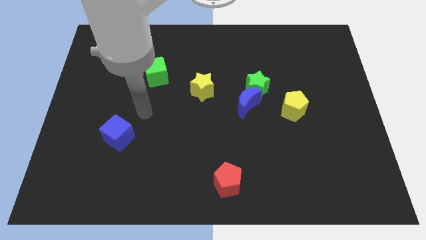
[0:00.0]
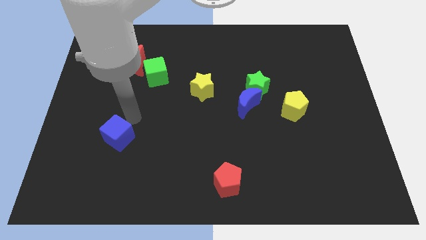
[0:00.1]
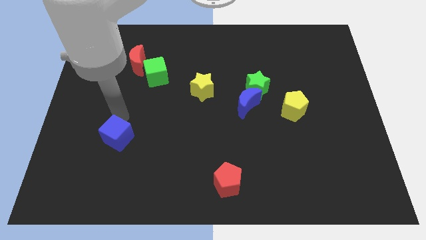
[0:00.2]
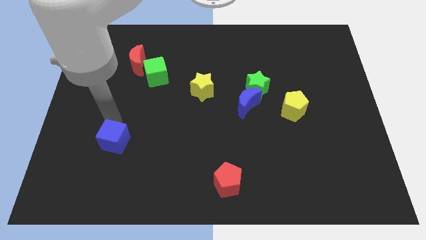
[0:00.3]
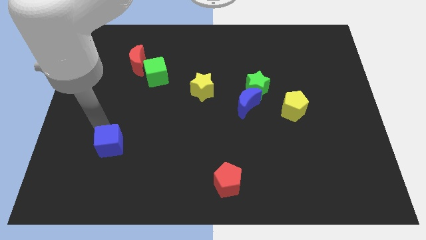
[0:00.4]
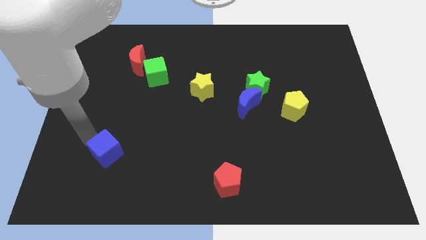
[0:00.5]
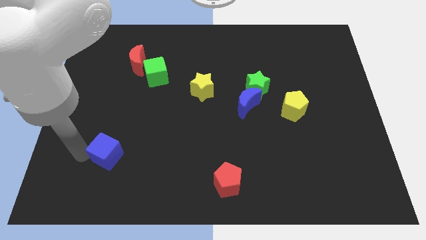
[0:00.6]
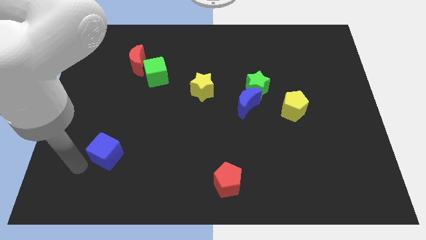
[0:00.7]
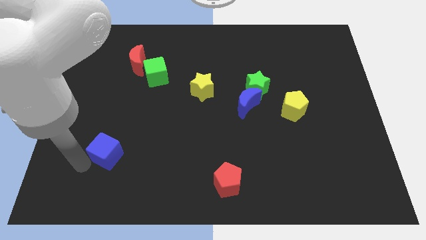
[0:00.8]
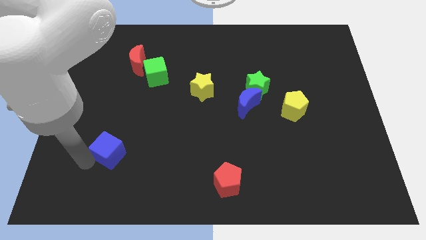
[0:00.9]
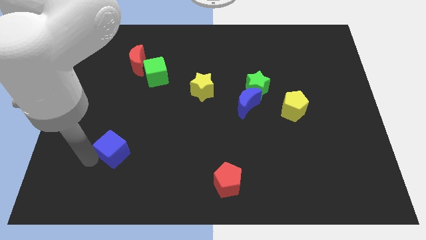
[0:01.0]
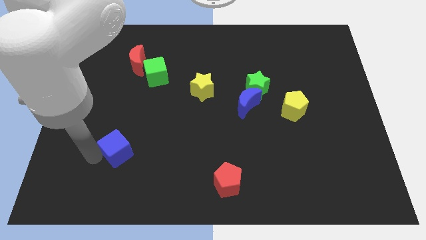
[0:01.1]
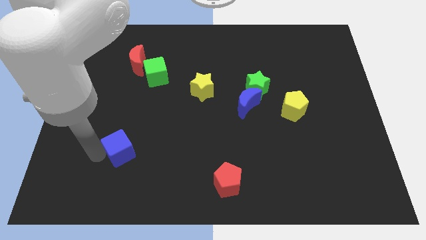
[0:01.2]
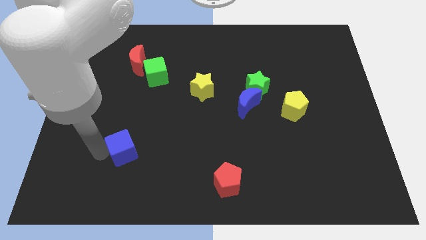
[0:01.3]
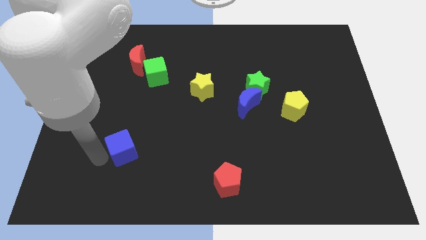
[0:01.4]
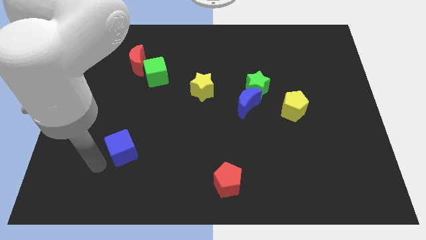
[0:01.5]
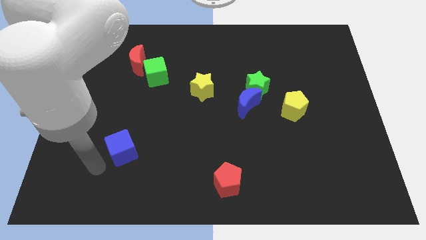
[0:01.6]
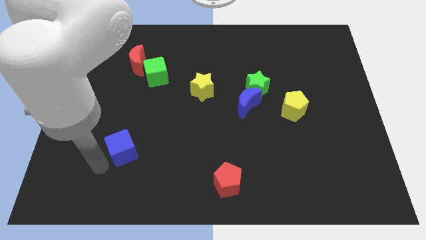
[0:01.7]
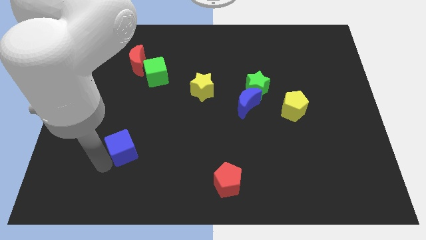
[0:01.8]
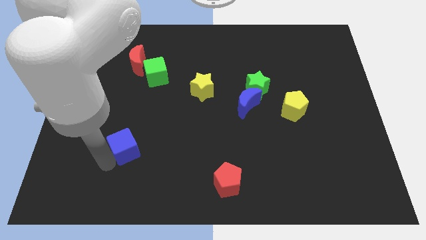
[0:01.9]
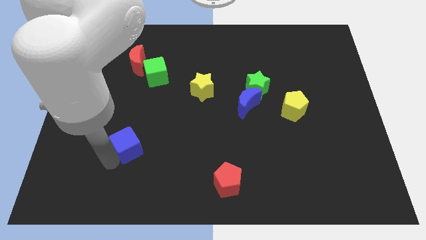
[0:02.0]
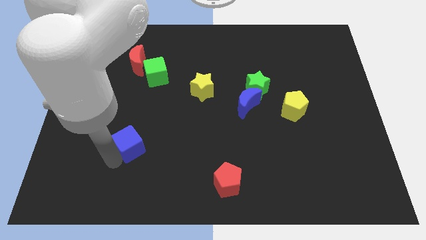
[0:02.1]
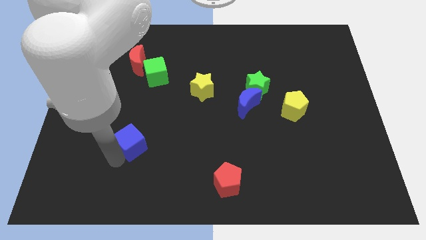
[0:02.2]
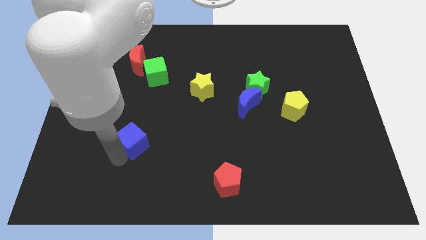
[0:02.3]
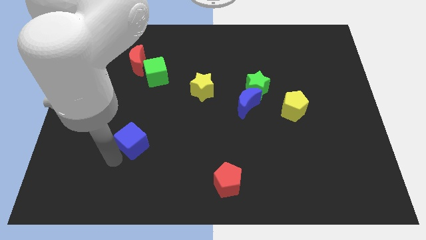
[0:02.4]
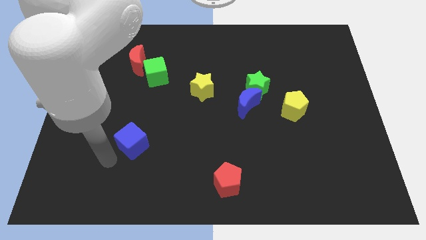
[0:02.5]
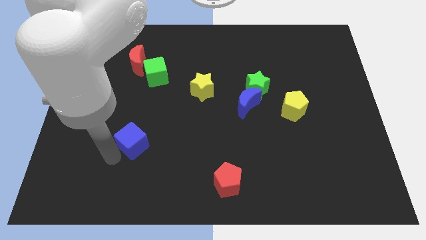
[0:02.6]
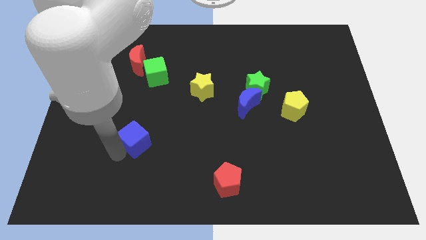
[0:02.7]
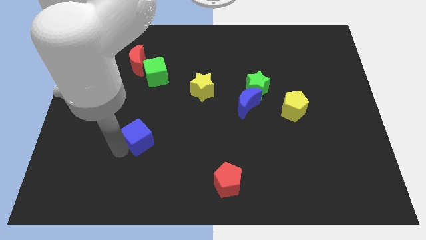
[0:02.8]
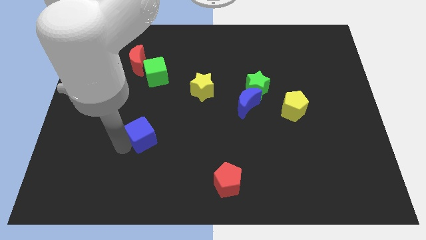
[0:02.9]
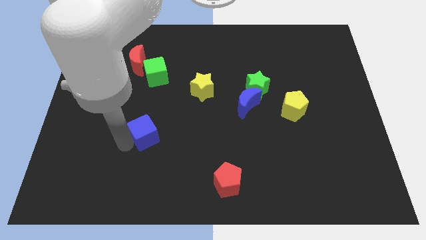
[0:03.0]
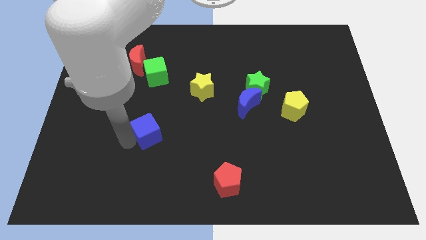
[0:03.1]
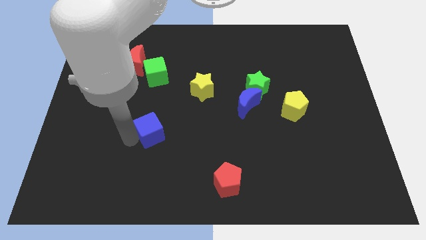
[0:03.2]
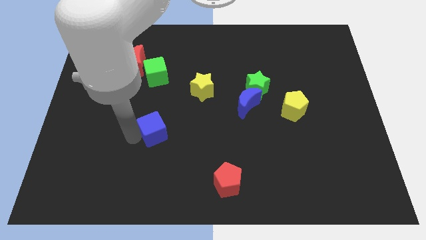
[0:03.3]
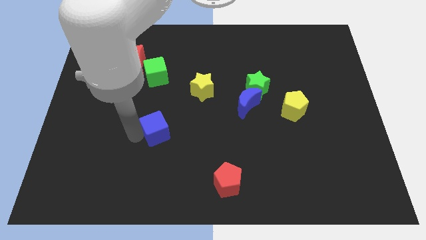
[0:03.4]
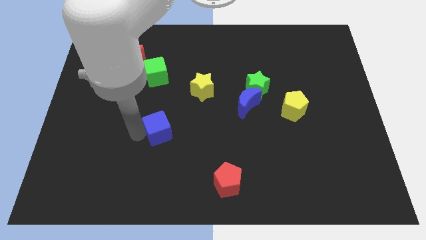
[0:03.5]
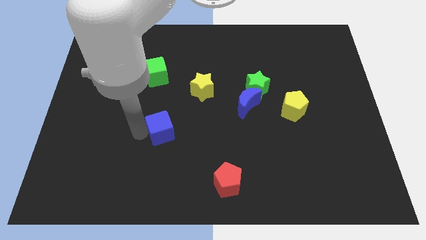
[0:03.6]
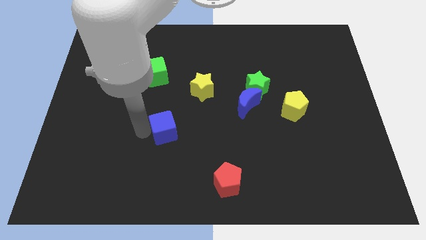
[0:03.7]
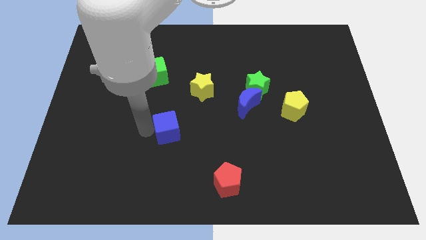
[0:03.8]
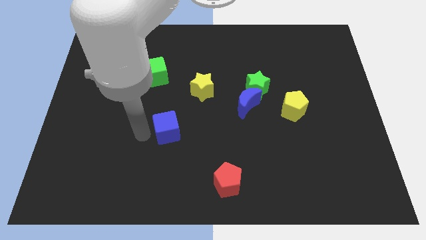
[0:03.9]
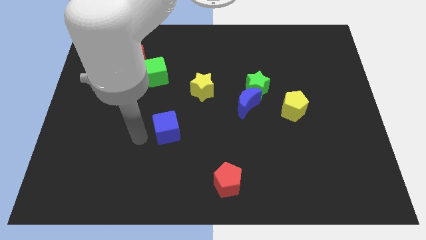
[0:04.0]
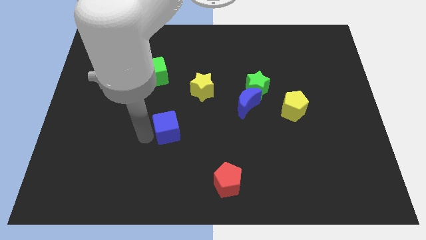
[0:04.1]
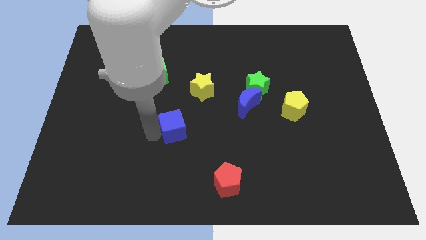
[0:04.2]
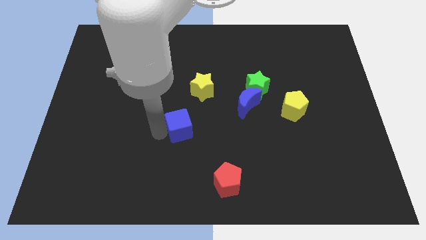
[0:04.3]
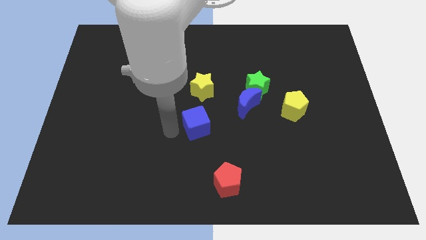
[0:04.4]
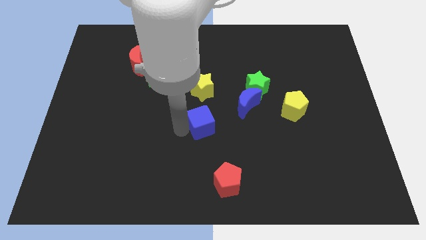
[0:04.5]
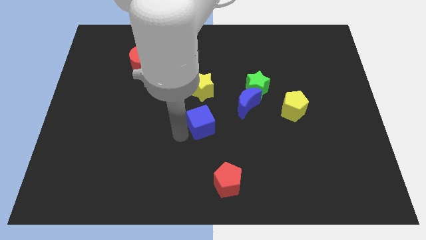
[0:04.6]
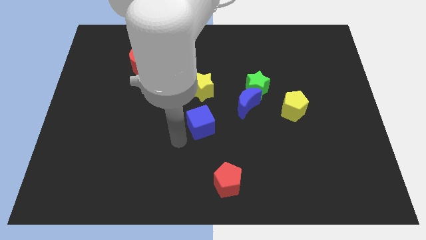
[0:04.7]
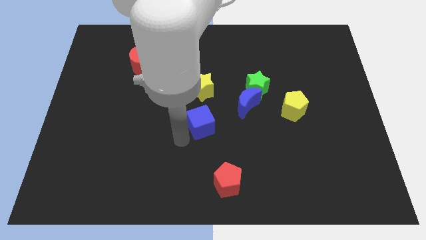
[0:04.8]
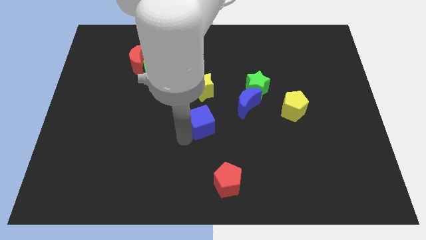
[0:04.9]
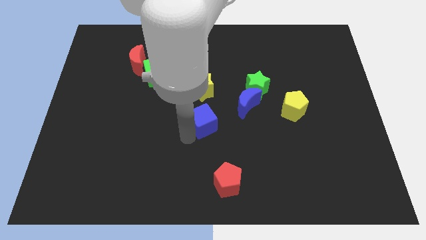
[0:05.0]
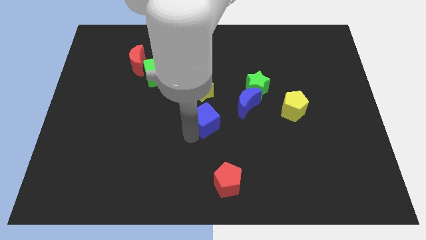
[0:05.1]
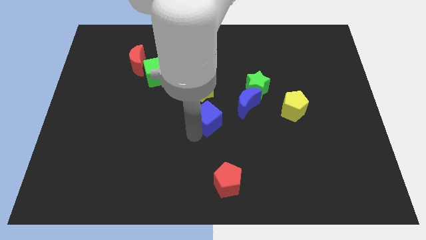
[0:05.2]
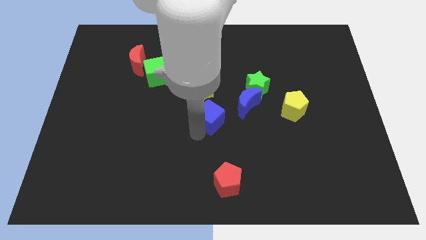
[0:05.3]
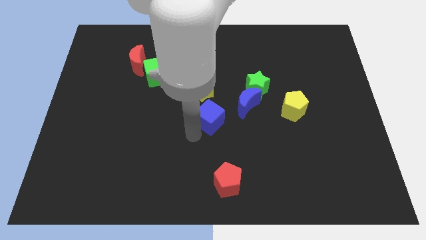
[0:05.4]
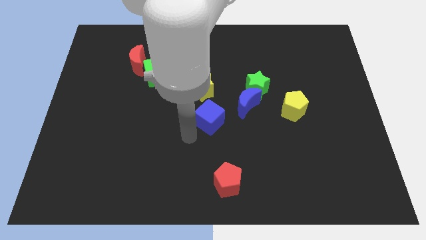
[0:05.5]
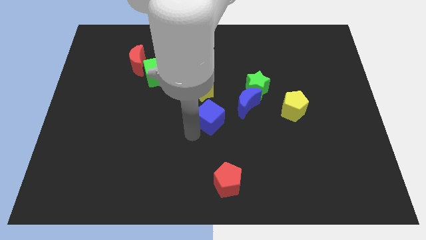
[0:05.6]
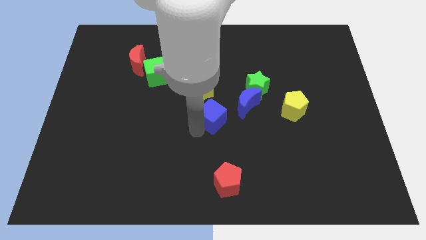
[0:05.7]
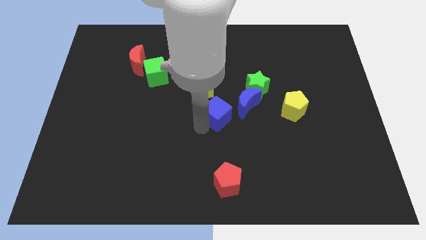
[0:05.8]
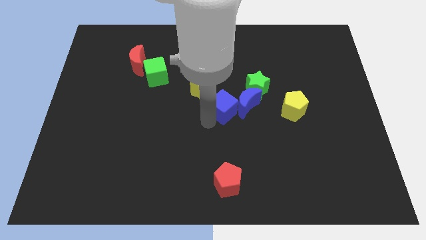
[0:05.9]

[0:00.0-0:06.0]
move the blue cube close to the blue moon

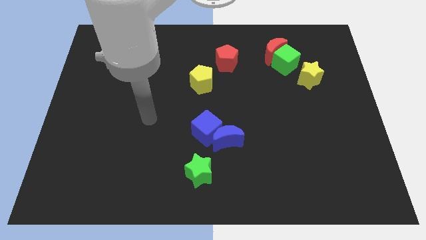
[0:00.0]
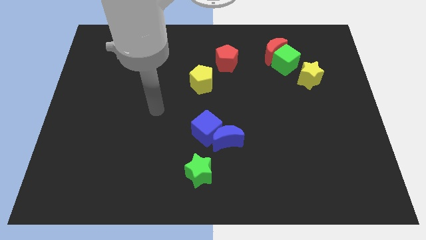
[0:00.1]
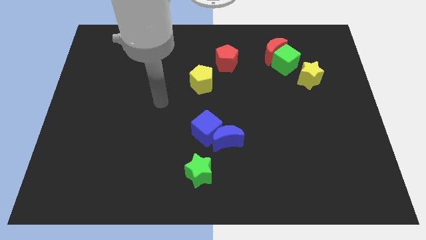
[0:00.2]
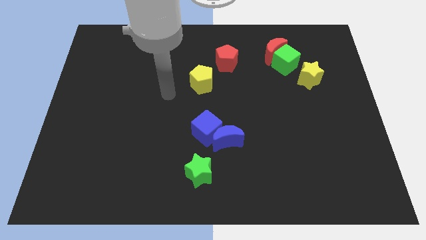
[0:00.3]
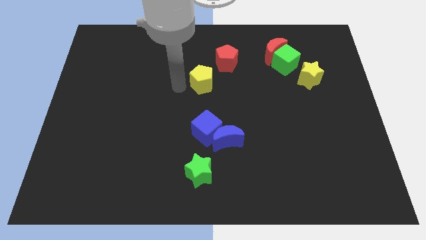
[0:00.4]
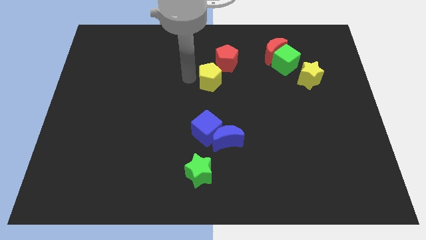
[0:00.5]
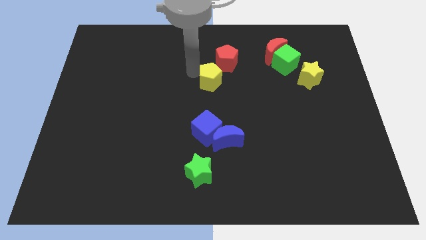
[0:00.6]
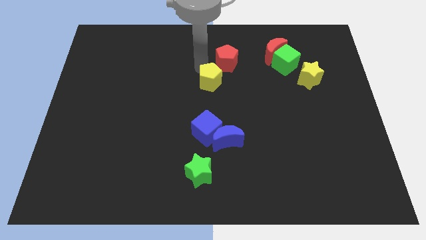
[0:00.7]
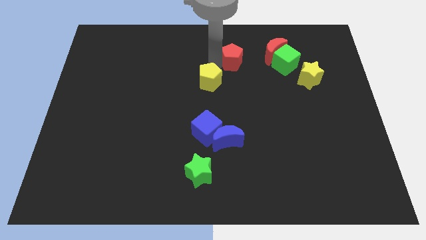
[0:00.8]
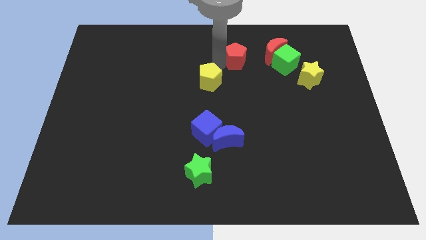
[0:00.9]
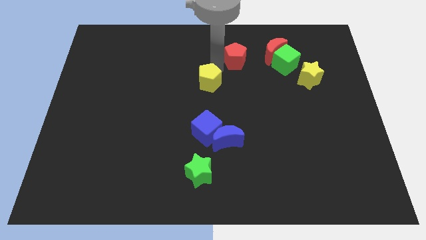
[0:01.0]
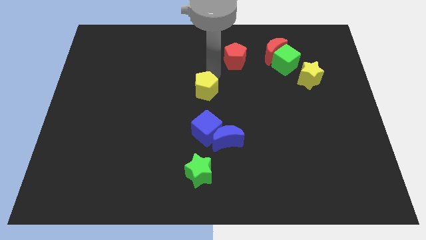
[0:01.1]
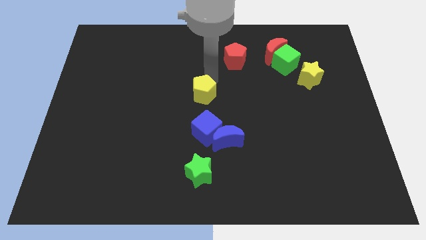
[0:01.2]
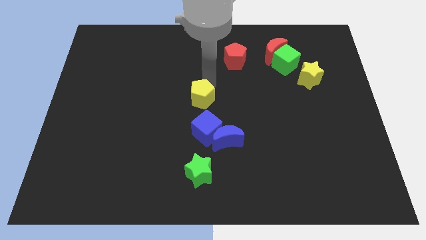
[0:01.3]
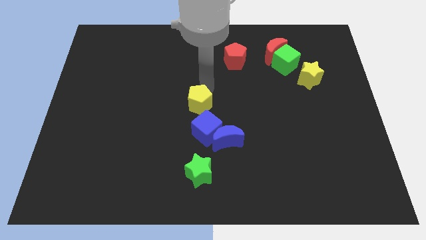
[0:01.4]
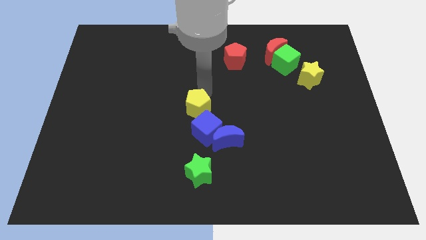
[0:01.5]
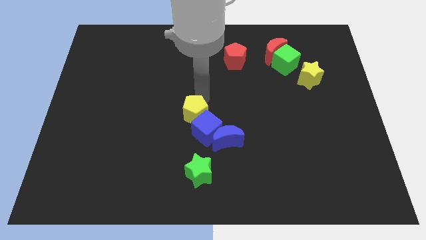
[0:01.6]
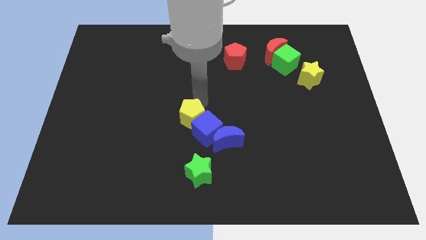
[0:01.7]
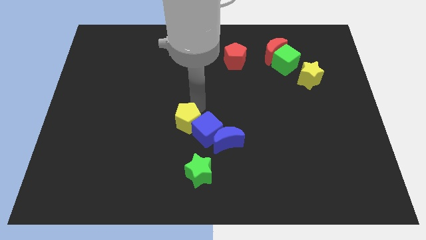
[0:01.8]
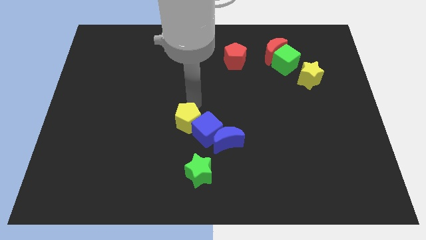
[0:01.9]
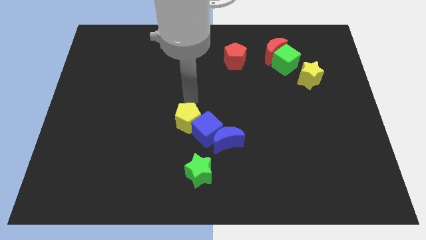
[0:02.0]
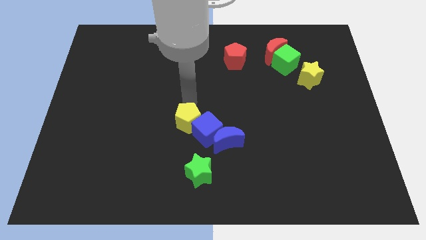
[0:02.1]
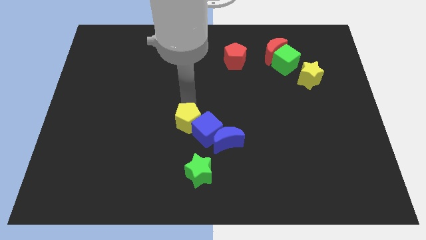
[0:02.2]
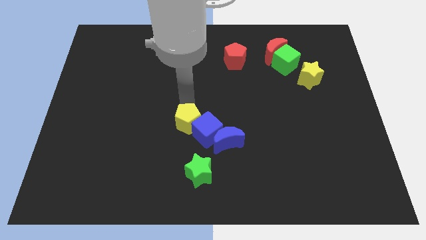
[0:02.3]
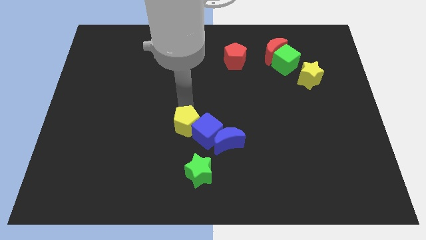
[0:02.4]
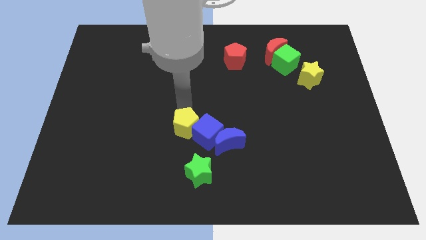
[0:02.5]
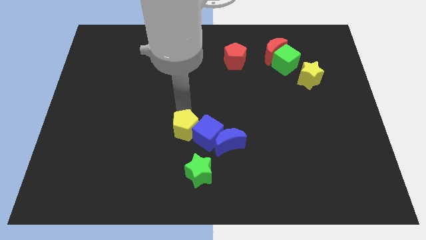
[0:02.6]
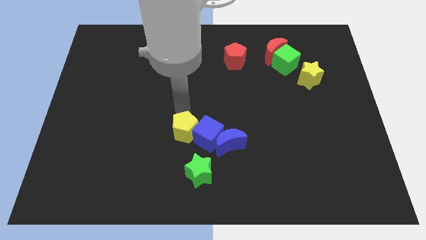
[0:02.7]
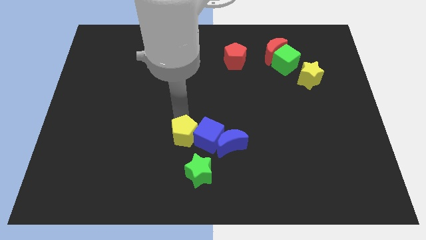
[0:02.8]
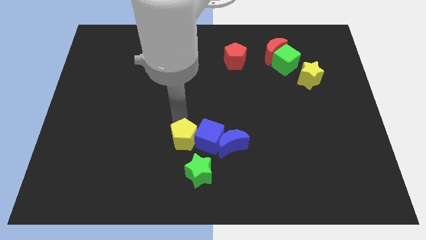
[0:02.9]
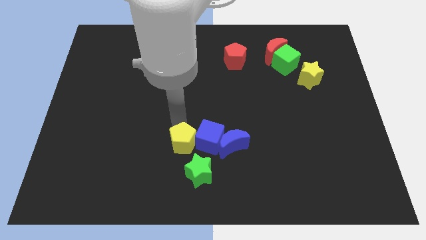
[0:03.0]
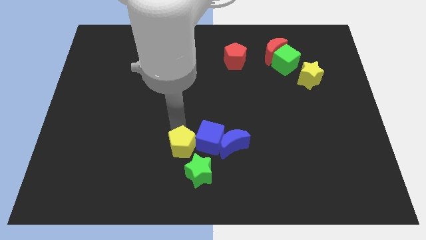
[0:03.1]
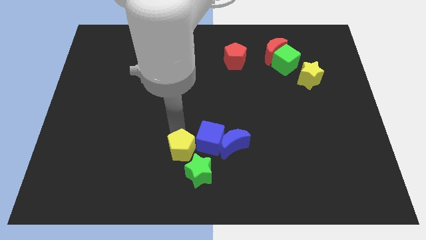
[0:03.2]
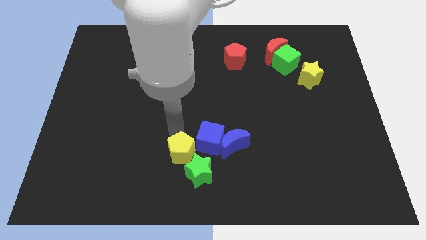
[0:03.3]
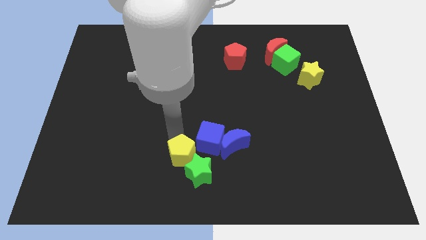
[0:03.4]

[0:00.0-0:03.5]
put the yellow pentagon to the green star
